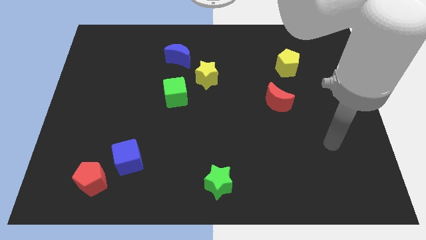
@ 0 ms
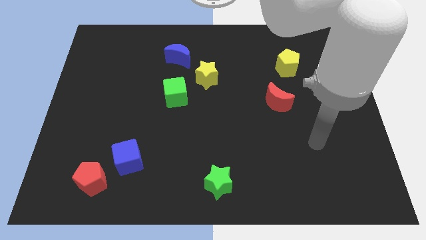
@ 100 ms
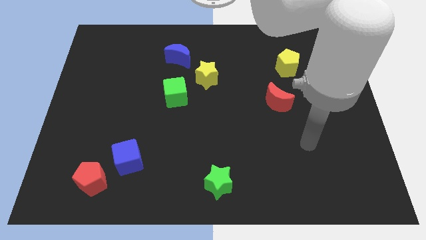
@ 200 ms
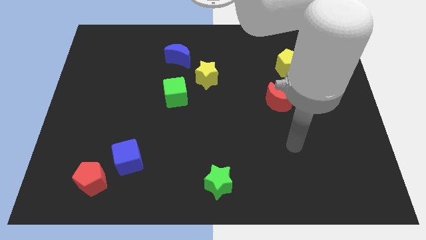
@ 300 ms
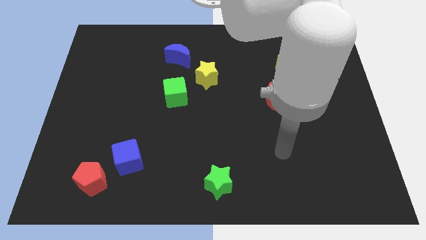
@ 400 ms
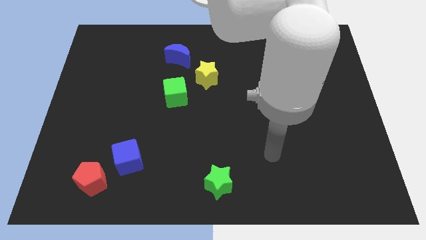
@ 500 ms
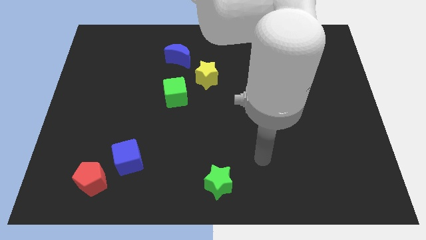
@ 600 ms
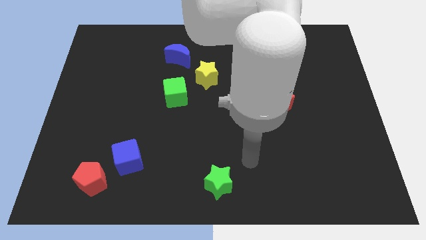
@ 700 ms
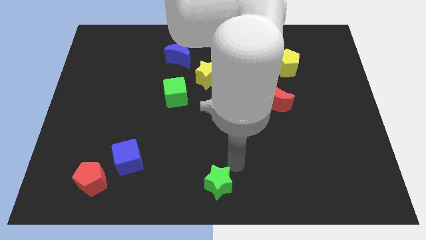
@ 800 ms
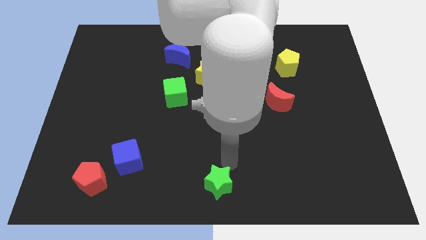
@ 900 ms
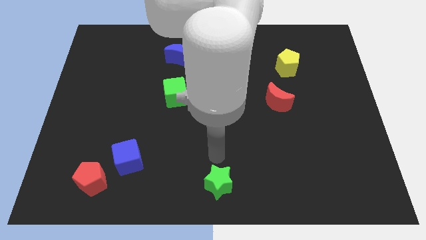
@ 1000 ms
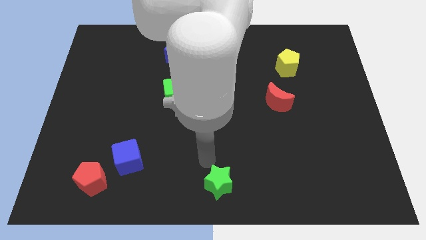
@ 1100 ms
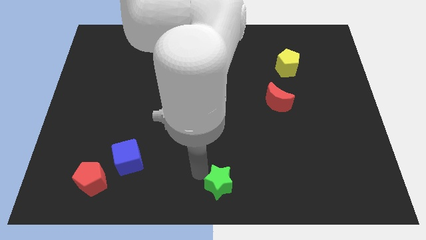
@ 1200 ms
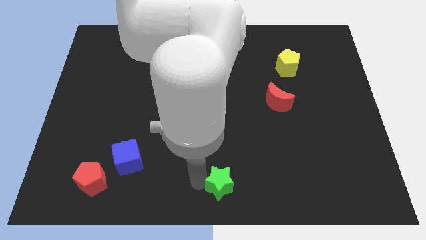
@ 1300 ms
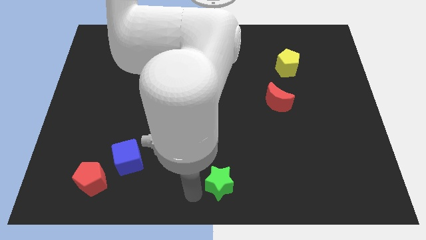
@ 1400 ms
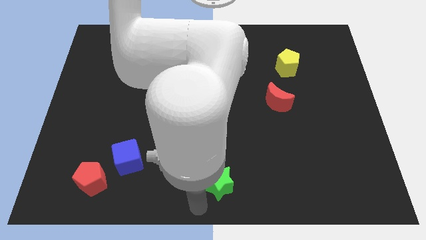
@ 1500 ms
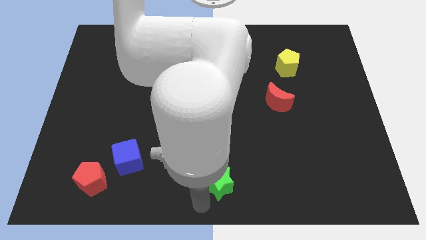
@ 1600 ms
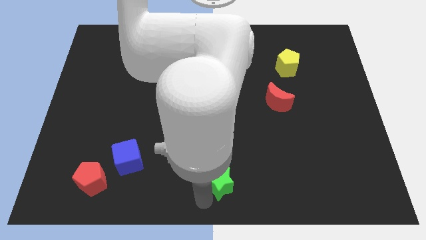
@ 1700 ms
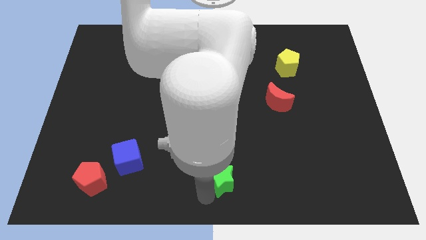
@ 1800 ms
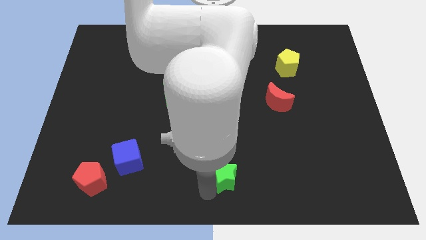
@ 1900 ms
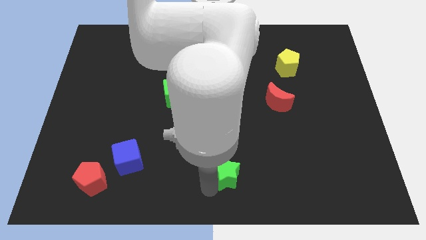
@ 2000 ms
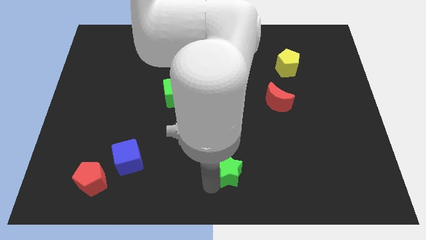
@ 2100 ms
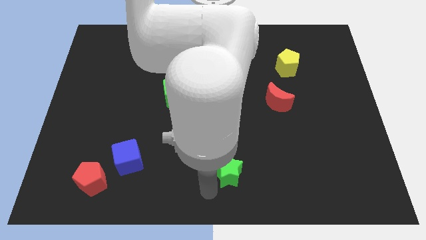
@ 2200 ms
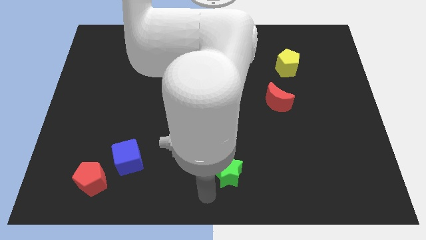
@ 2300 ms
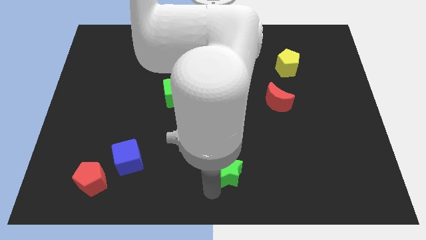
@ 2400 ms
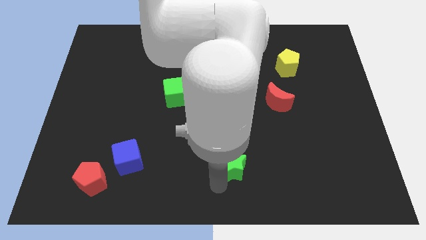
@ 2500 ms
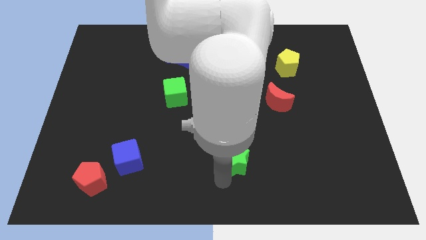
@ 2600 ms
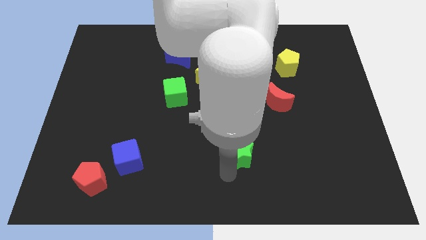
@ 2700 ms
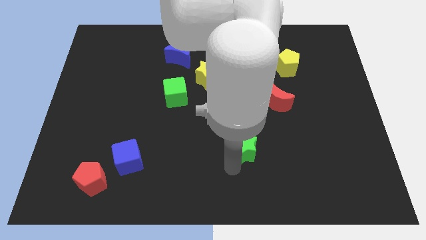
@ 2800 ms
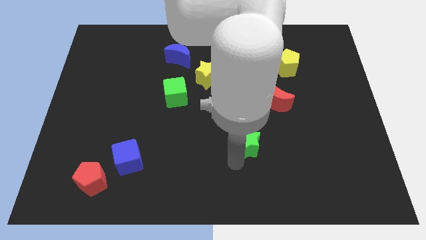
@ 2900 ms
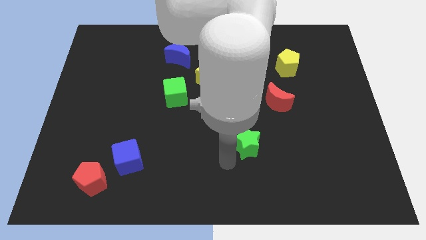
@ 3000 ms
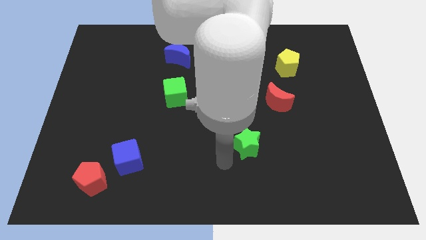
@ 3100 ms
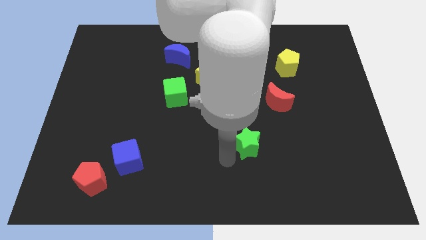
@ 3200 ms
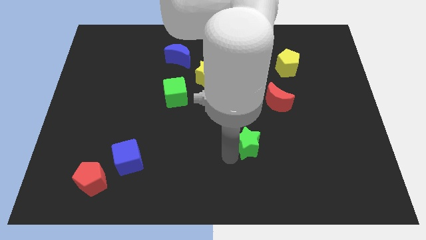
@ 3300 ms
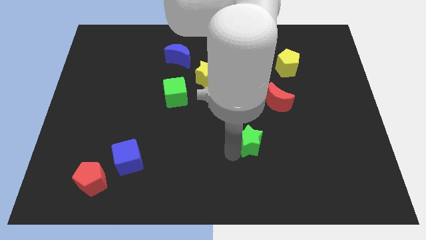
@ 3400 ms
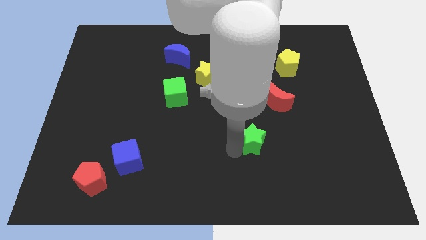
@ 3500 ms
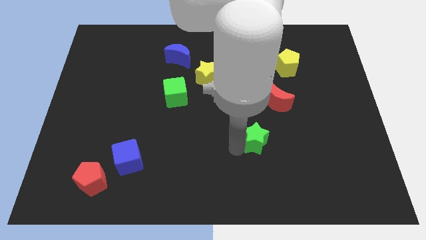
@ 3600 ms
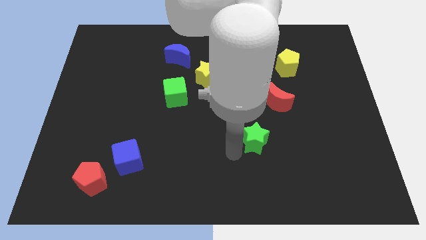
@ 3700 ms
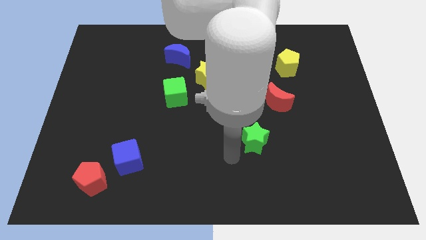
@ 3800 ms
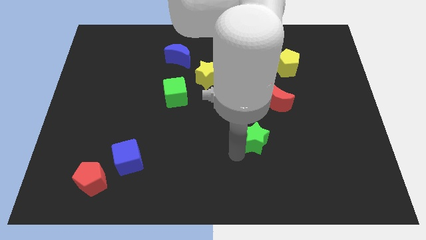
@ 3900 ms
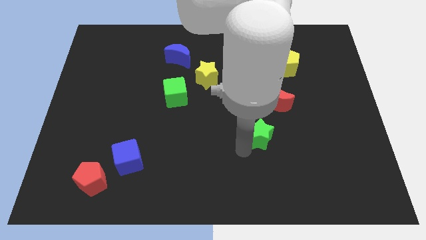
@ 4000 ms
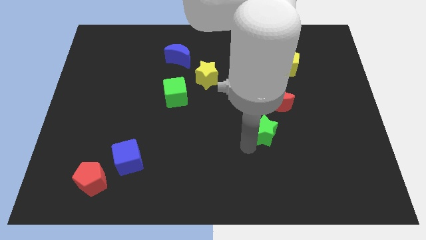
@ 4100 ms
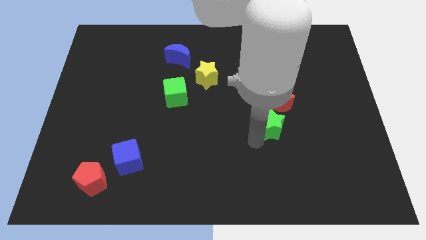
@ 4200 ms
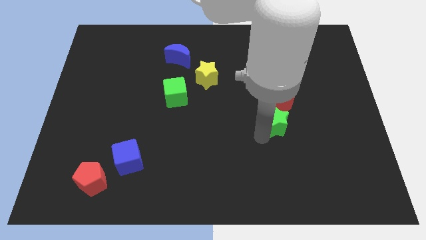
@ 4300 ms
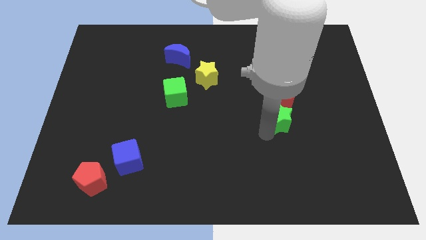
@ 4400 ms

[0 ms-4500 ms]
move the green star diagonally upwards and right

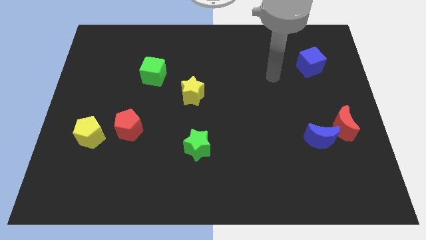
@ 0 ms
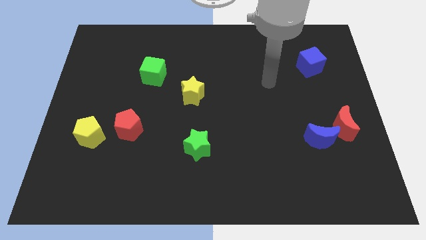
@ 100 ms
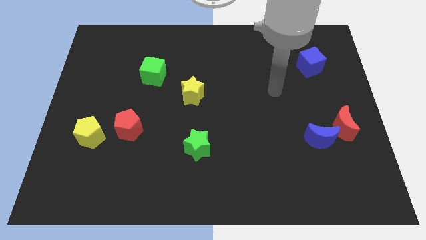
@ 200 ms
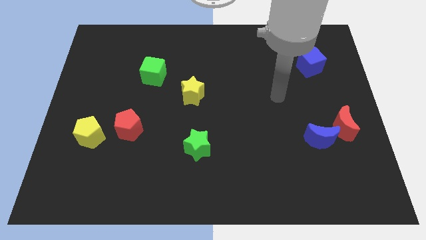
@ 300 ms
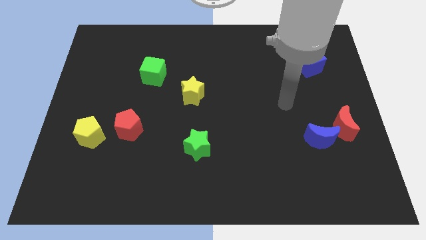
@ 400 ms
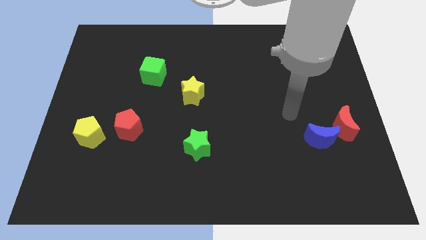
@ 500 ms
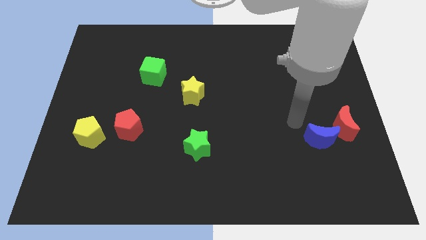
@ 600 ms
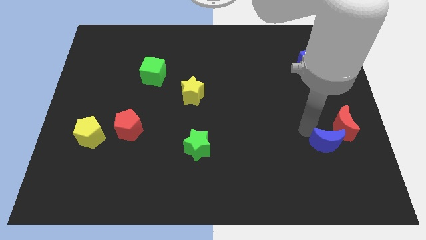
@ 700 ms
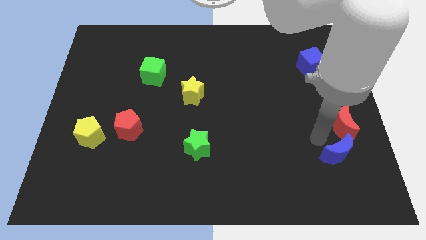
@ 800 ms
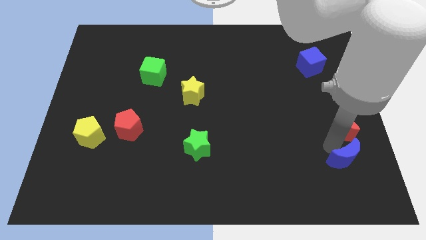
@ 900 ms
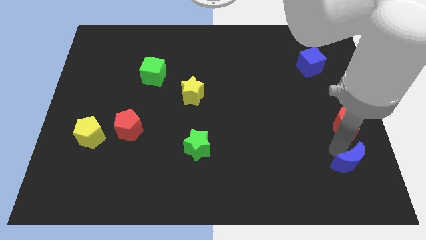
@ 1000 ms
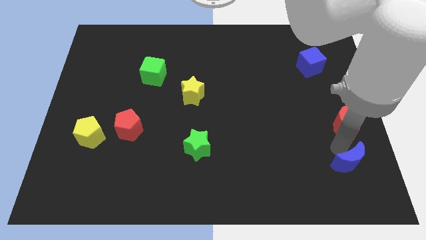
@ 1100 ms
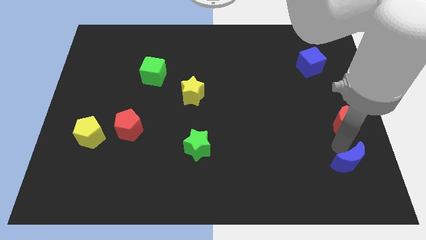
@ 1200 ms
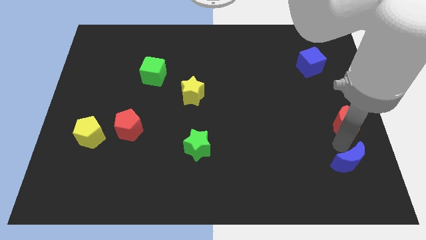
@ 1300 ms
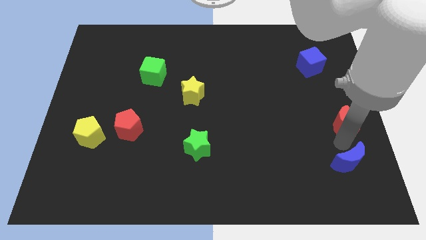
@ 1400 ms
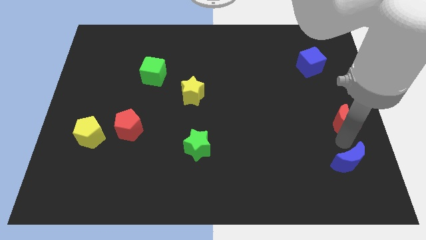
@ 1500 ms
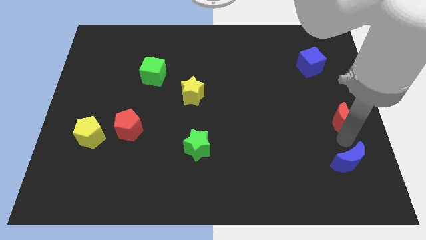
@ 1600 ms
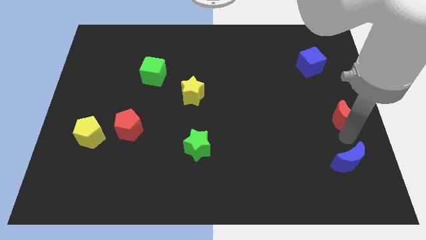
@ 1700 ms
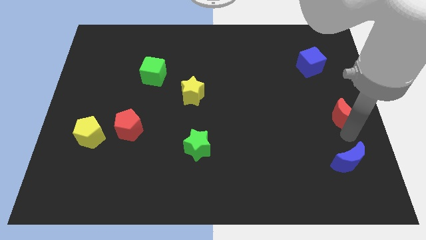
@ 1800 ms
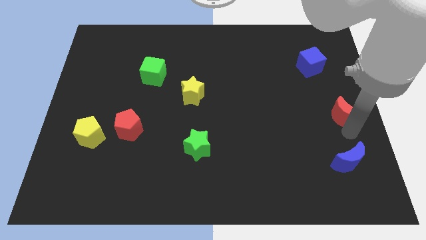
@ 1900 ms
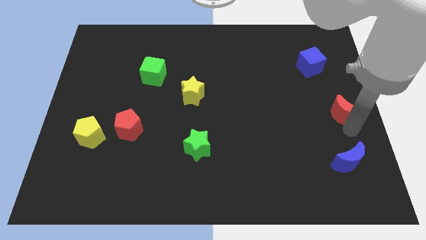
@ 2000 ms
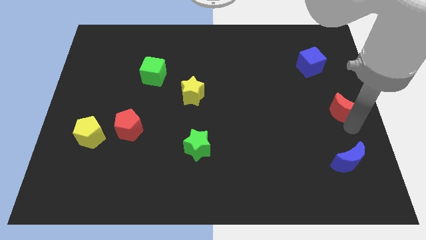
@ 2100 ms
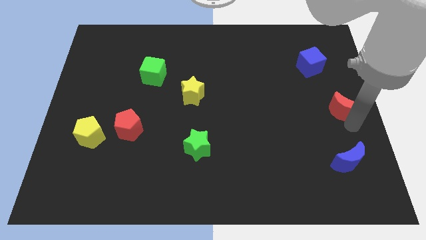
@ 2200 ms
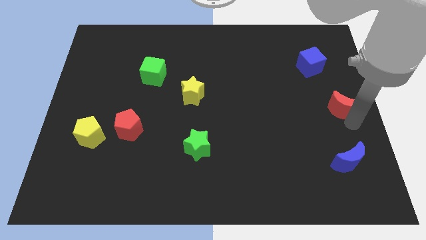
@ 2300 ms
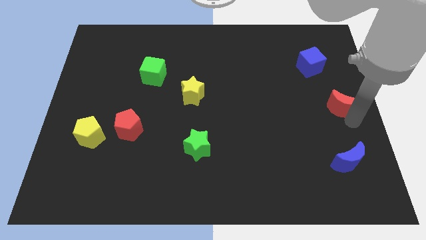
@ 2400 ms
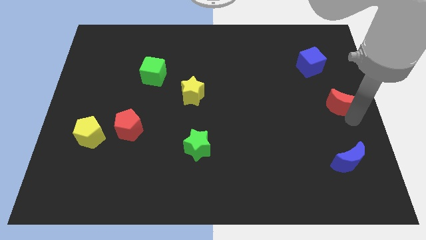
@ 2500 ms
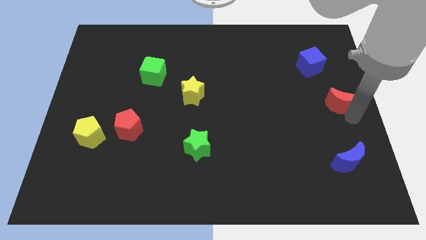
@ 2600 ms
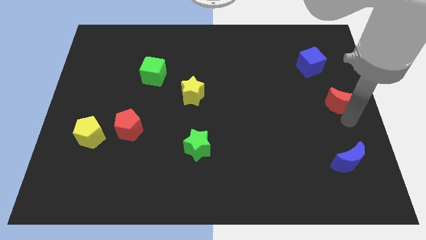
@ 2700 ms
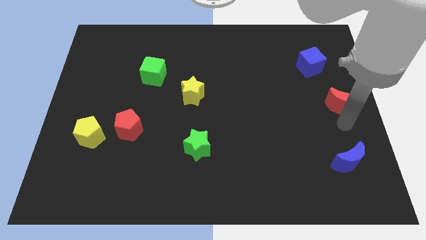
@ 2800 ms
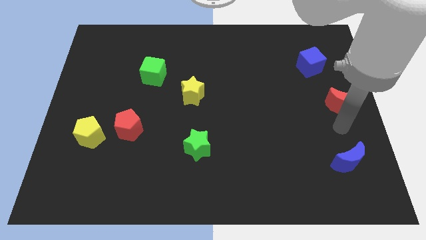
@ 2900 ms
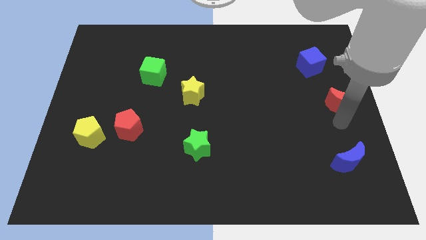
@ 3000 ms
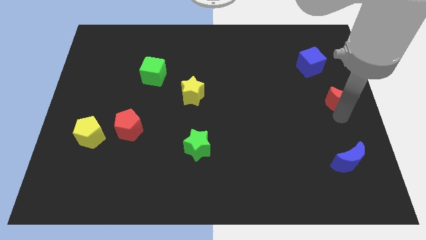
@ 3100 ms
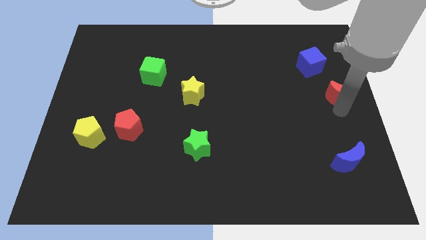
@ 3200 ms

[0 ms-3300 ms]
slightly move the red moon upwards

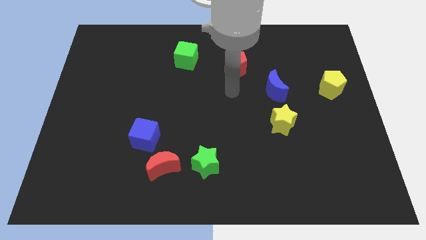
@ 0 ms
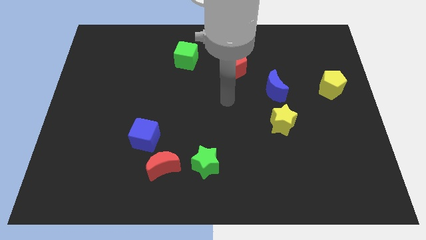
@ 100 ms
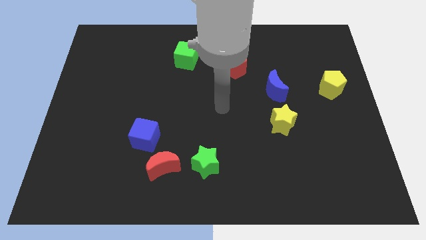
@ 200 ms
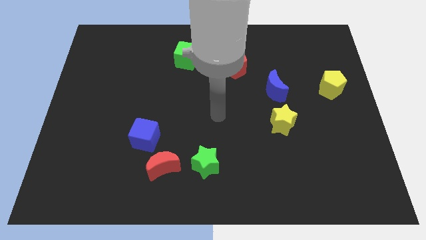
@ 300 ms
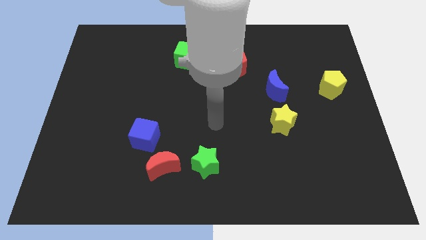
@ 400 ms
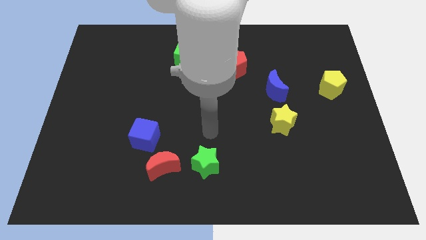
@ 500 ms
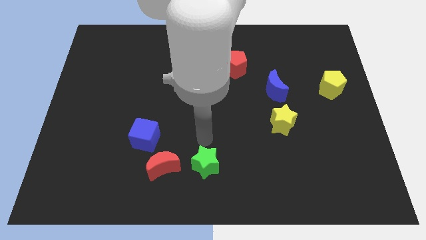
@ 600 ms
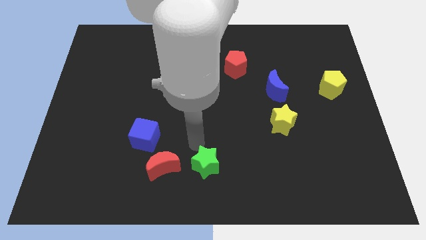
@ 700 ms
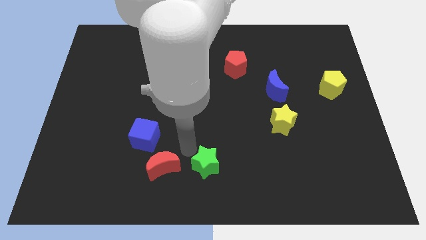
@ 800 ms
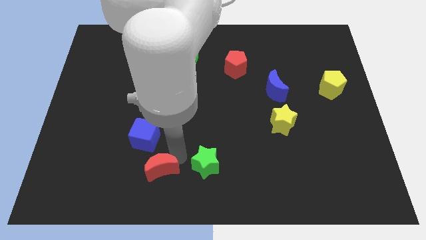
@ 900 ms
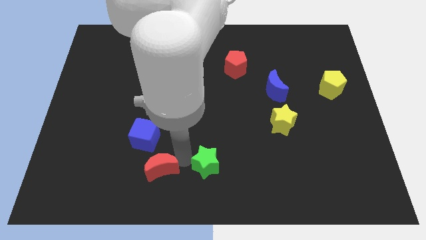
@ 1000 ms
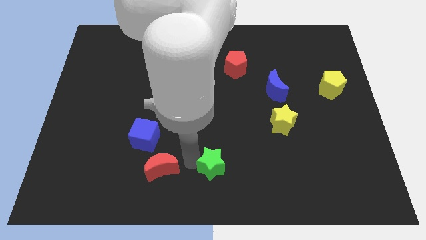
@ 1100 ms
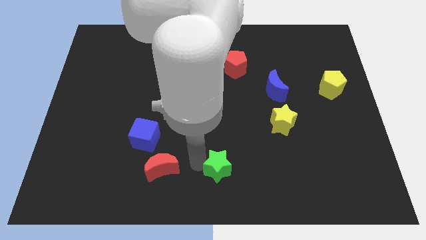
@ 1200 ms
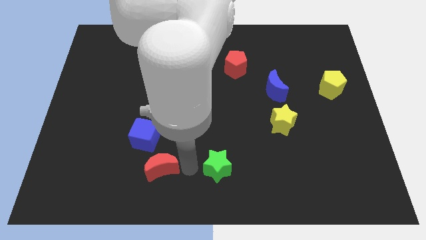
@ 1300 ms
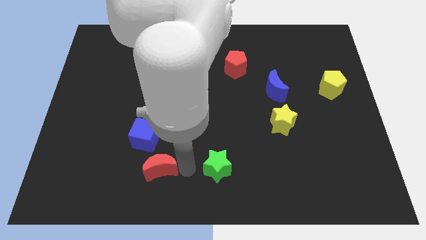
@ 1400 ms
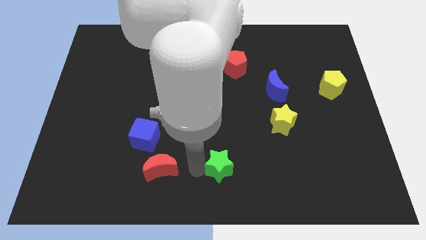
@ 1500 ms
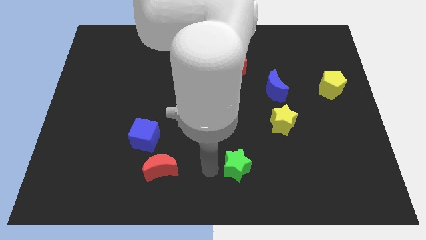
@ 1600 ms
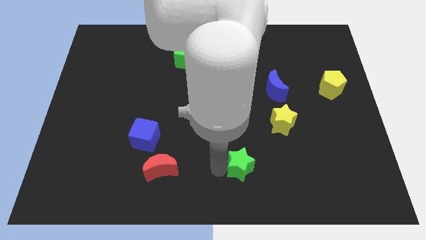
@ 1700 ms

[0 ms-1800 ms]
slide the green star a little right
